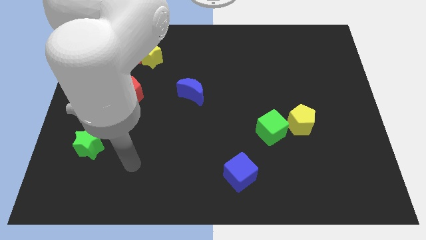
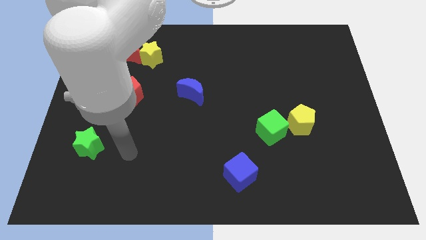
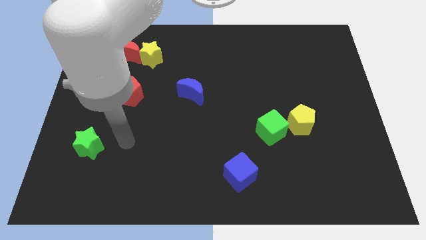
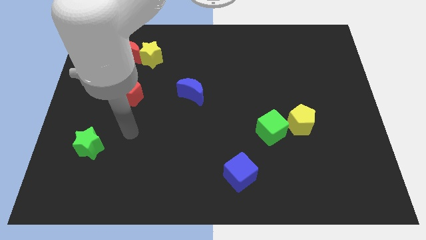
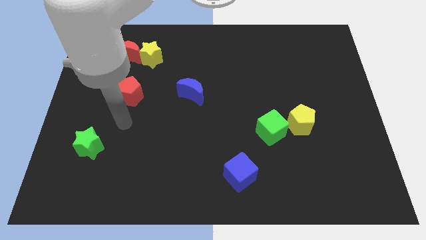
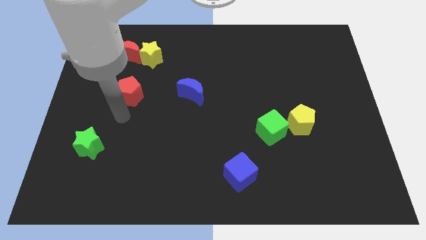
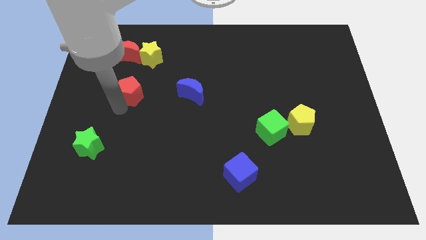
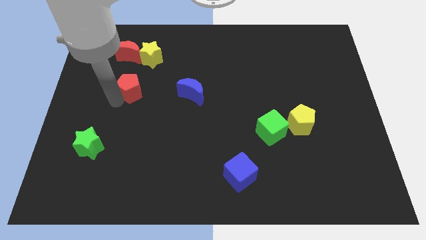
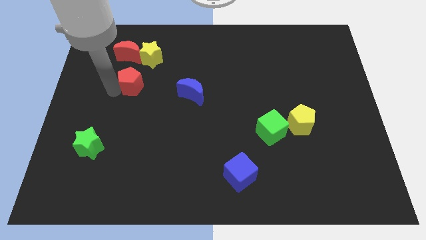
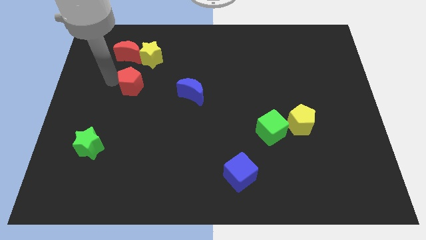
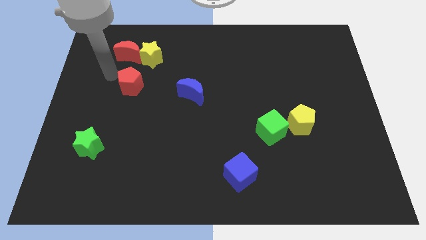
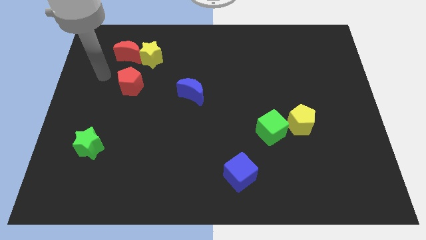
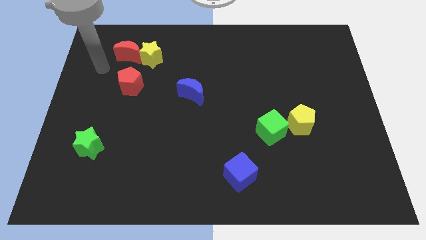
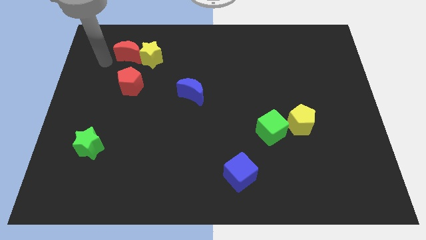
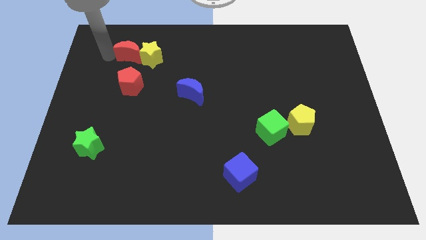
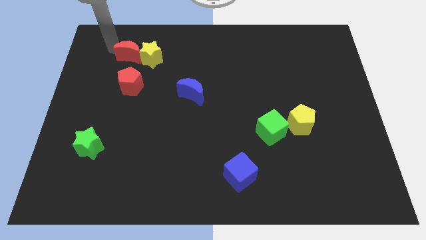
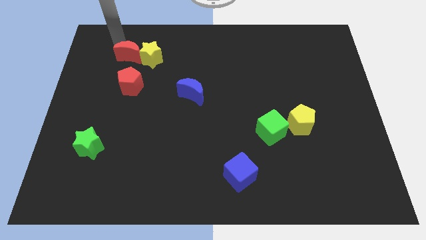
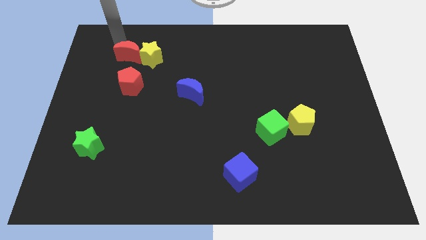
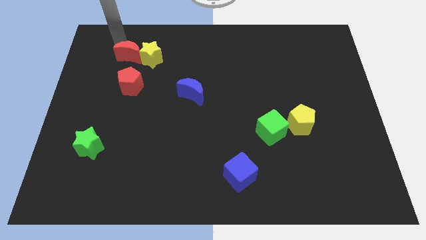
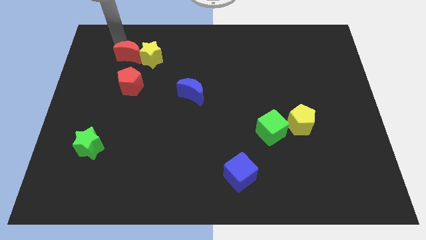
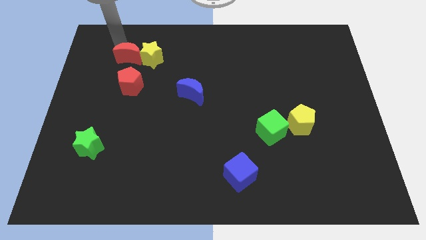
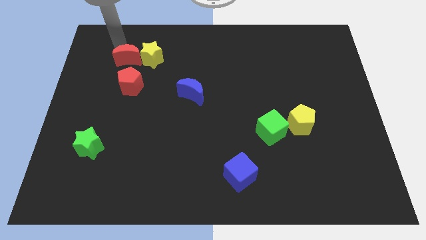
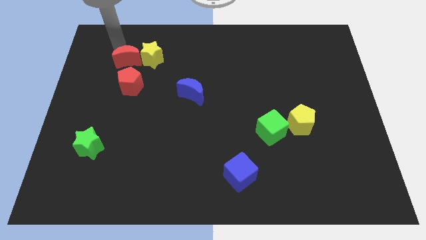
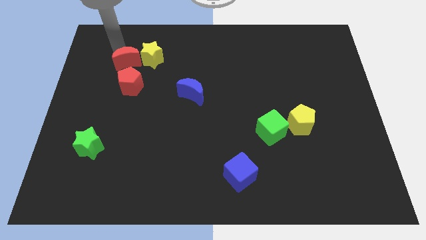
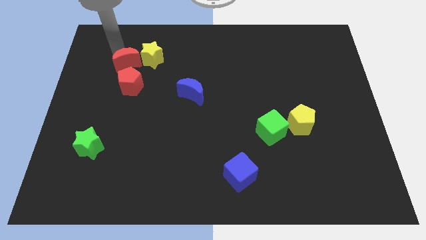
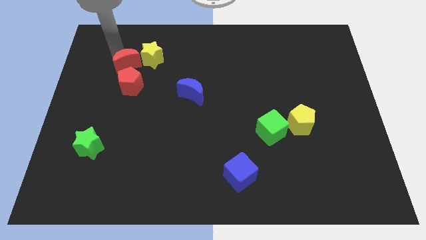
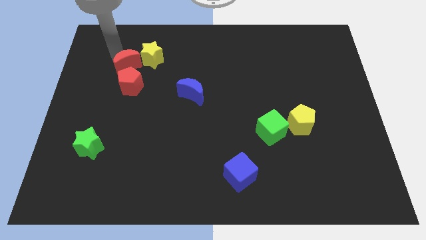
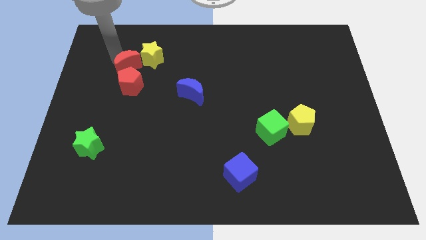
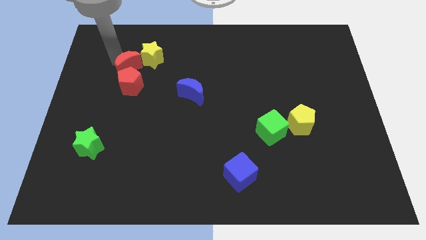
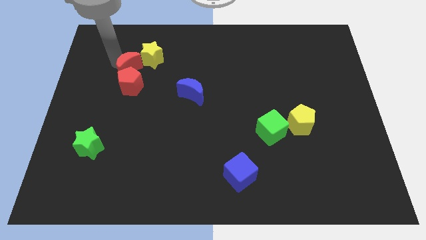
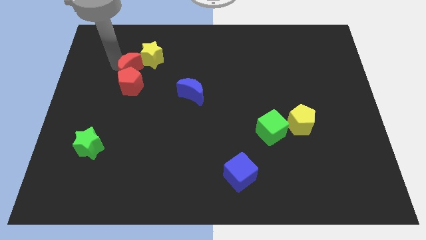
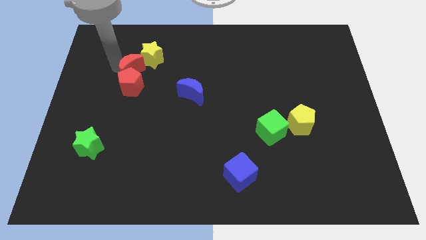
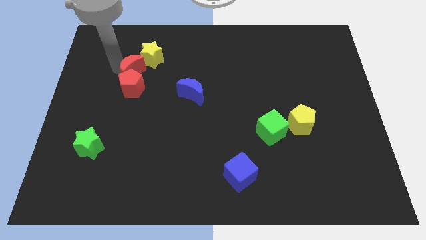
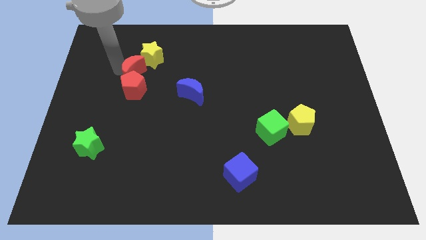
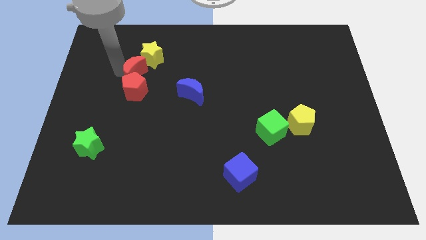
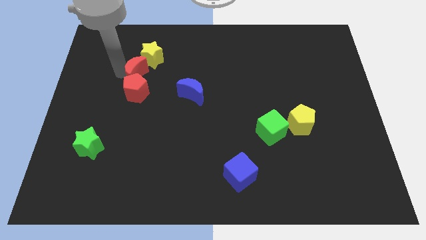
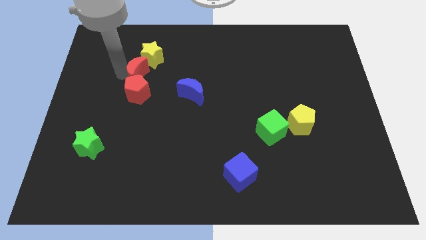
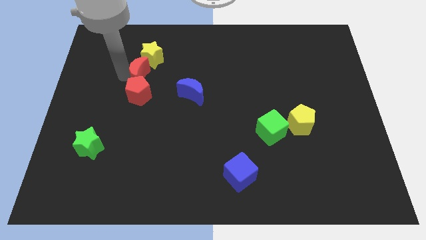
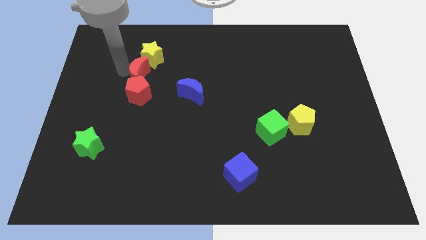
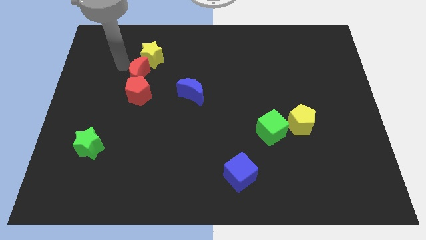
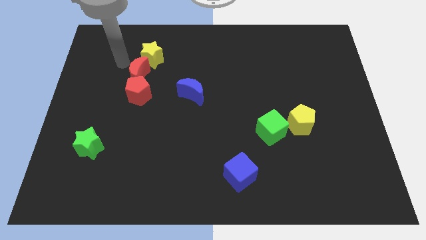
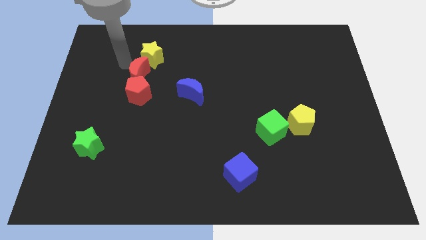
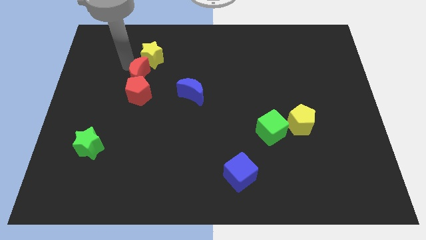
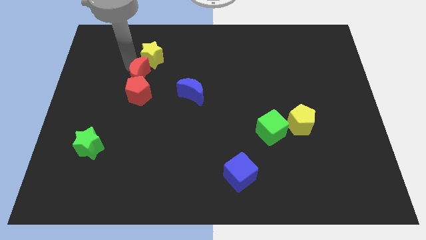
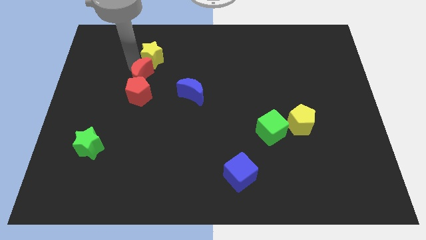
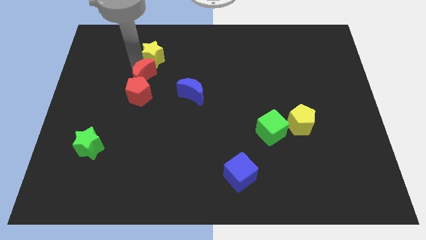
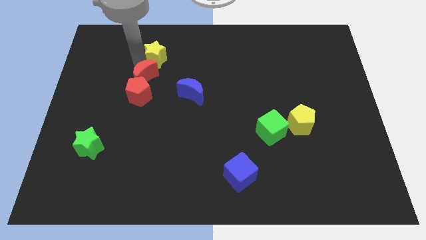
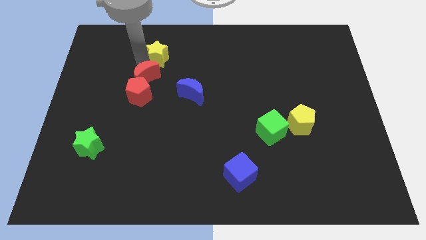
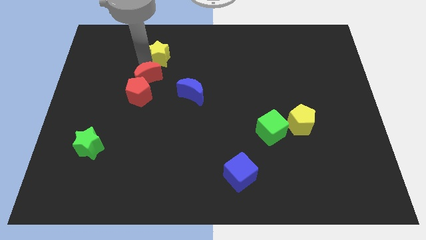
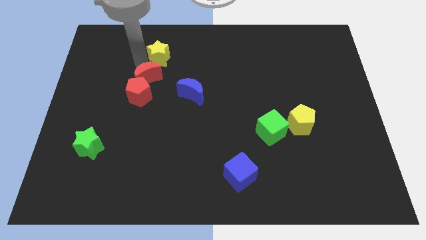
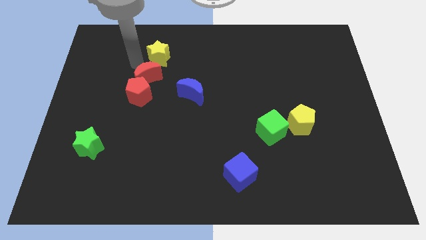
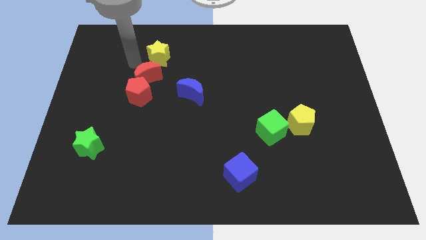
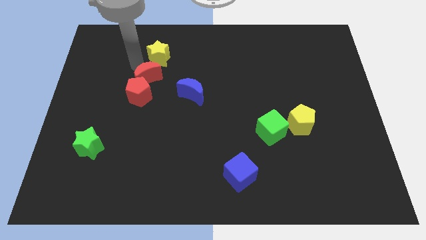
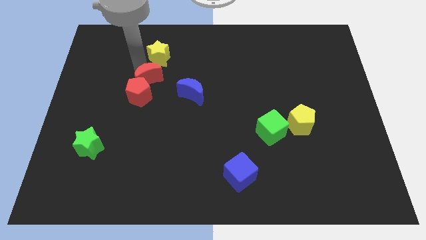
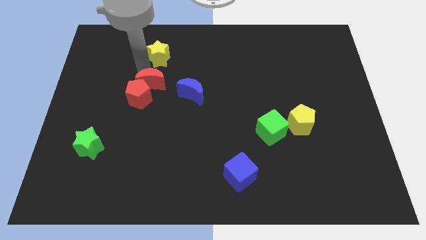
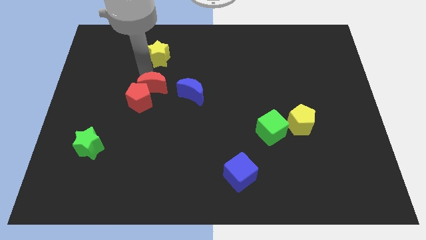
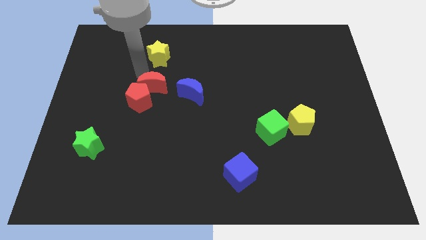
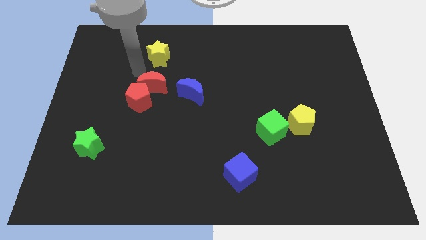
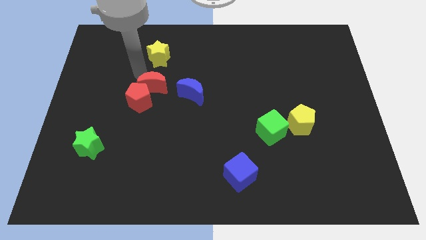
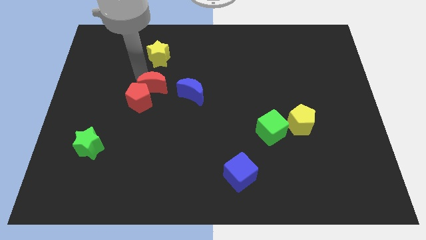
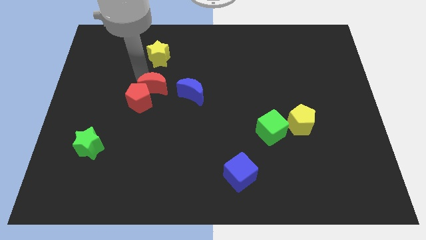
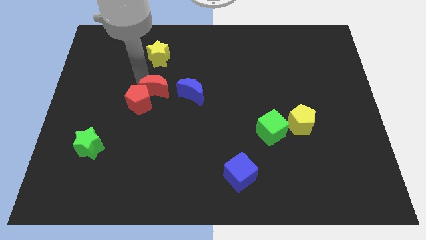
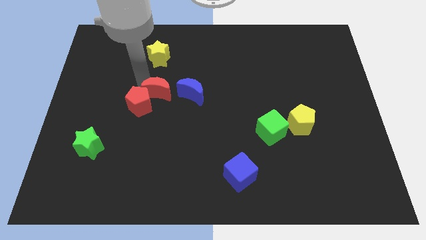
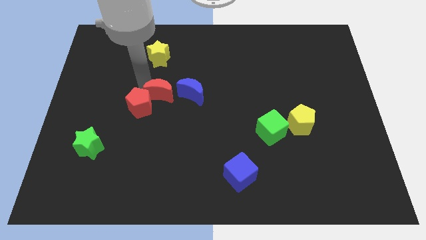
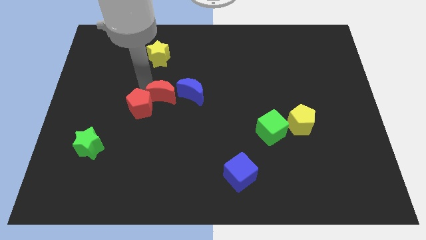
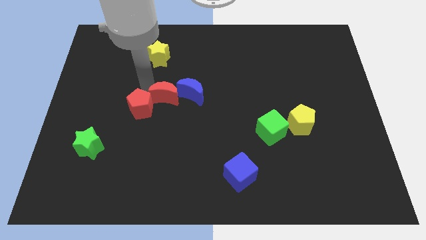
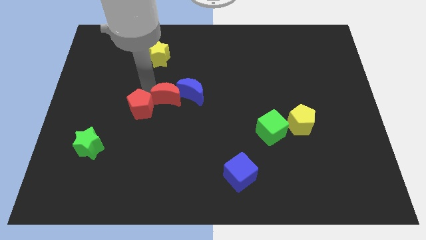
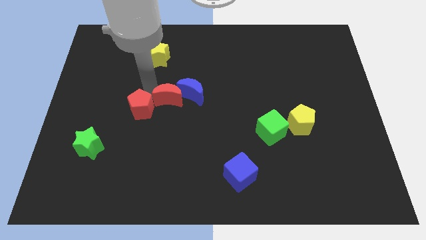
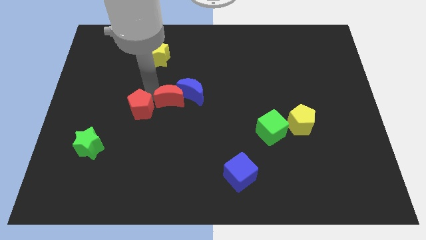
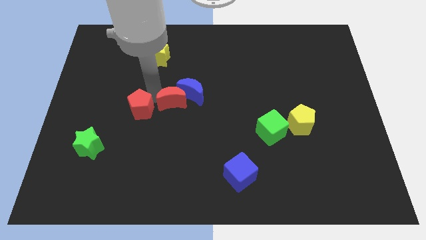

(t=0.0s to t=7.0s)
move the red moon down and right

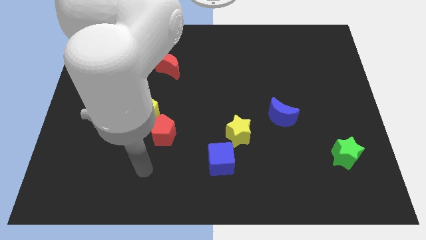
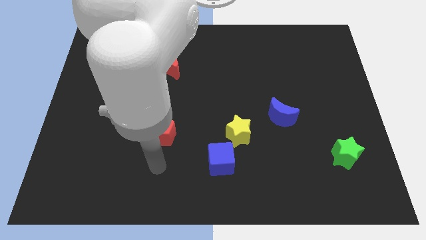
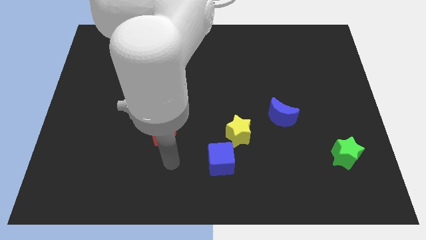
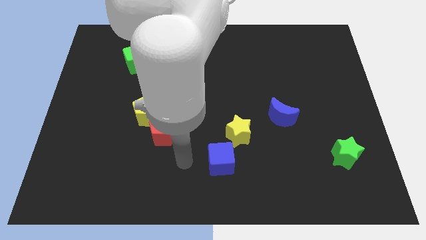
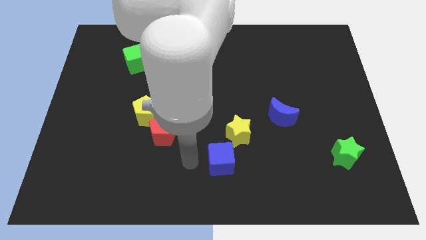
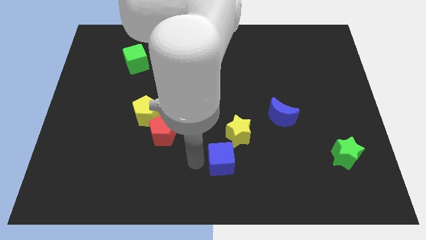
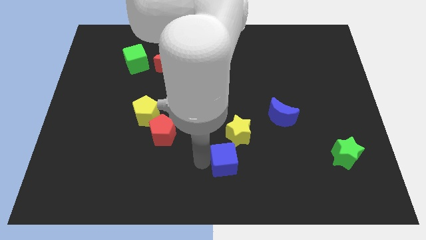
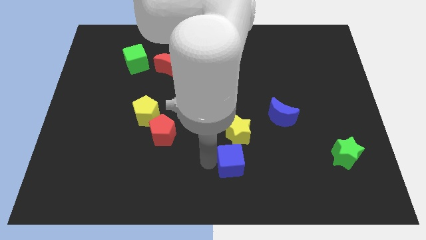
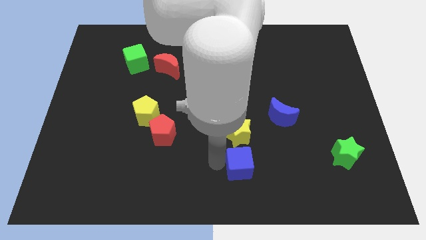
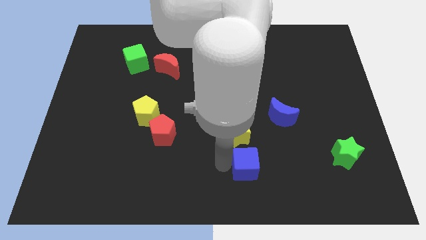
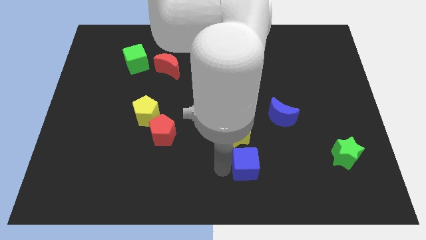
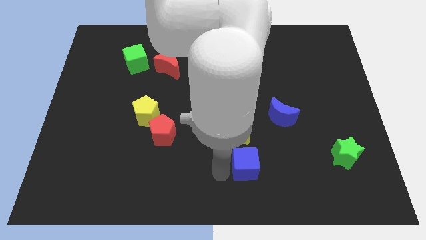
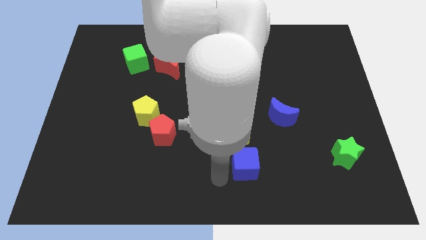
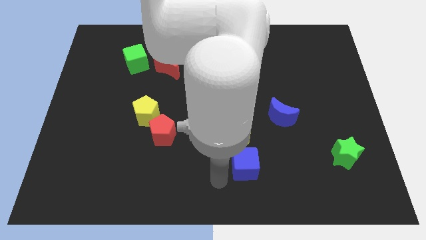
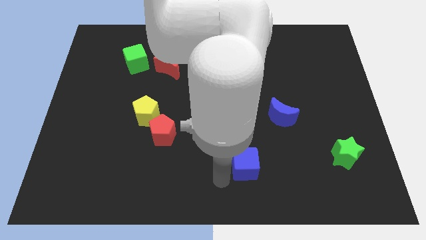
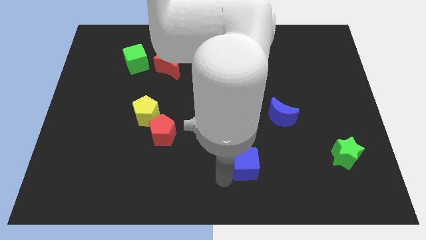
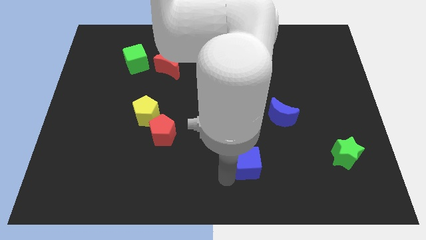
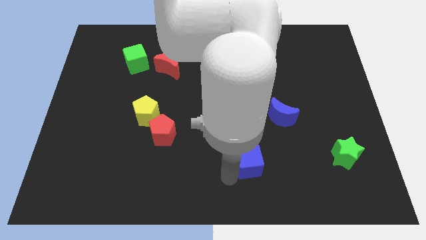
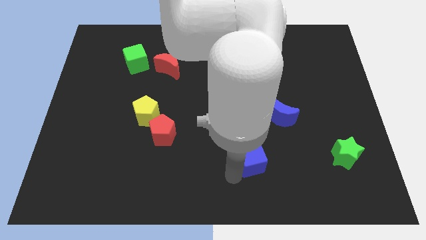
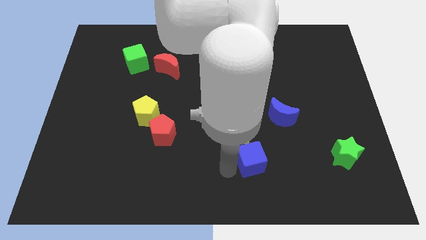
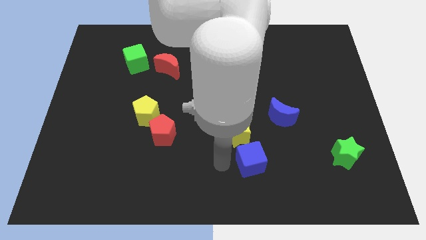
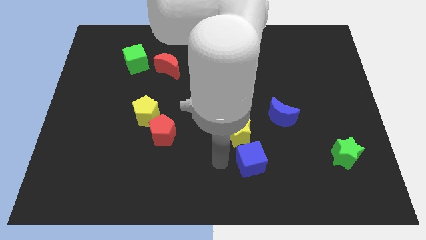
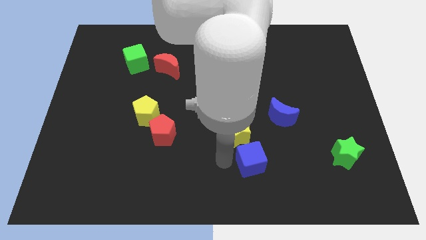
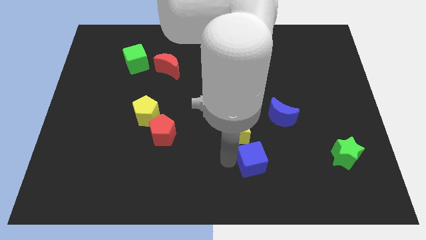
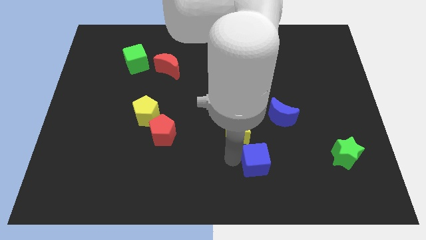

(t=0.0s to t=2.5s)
slightly move the blue cube to the right
